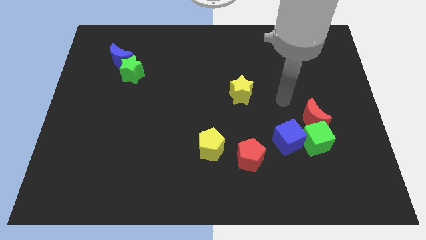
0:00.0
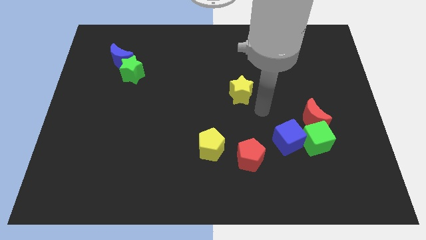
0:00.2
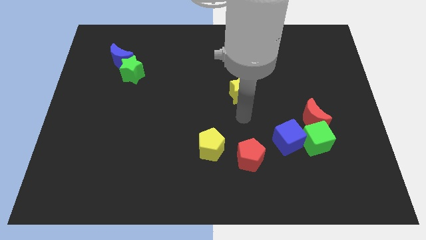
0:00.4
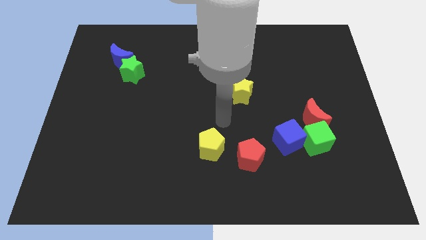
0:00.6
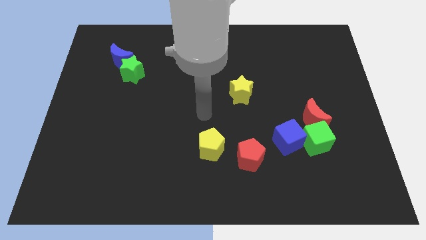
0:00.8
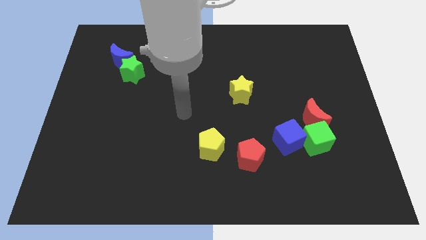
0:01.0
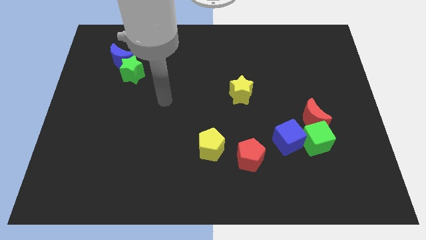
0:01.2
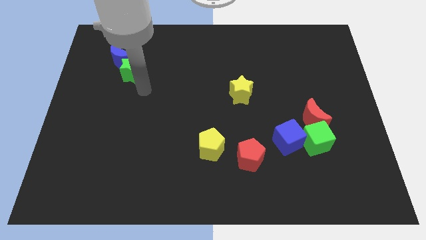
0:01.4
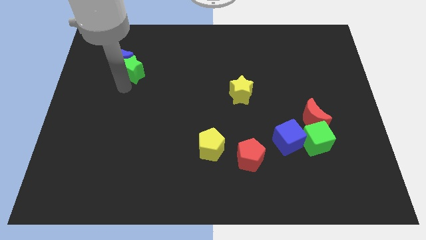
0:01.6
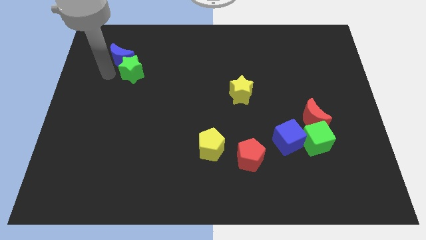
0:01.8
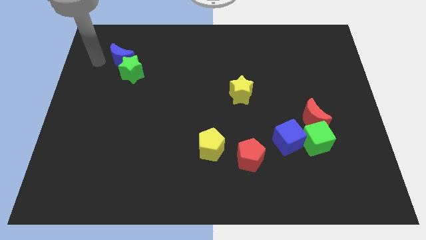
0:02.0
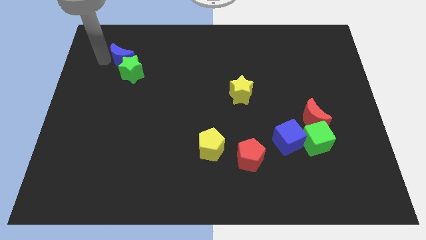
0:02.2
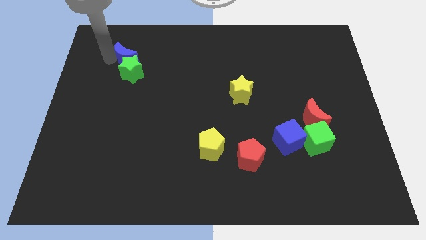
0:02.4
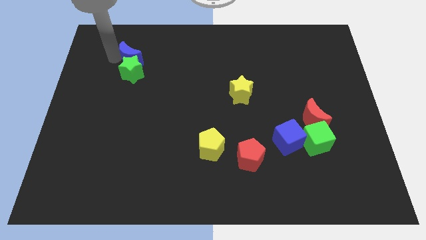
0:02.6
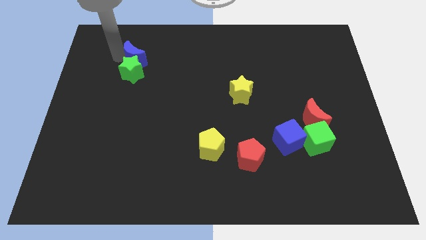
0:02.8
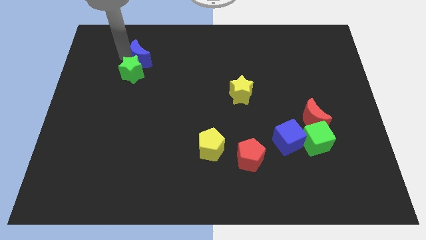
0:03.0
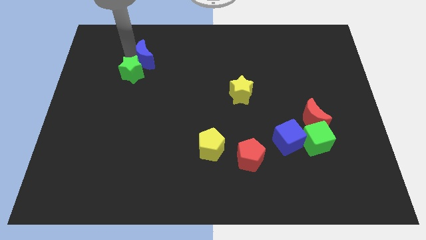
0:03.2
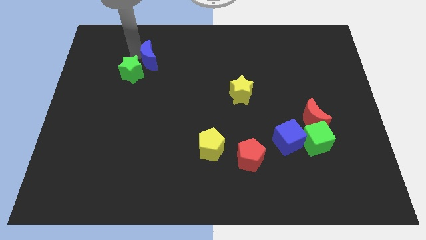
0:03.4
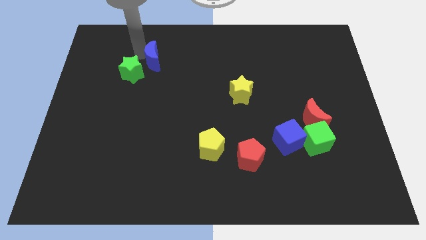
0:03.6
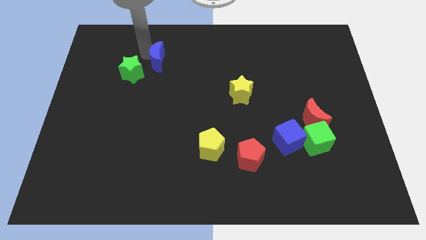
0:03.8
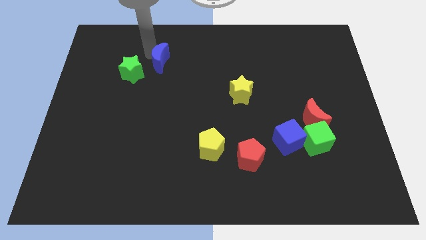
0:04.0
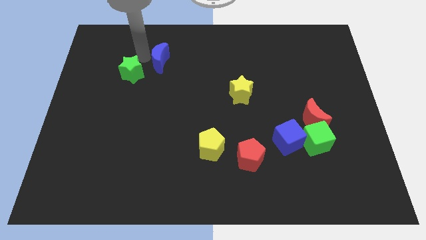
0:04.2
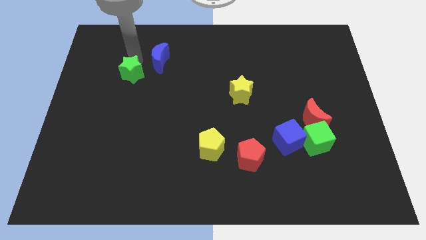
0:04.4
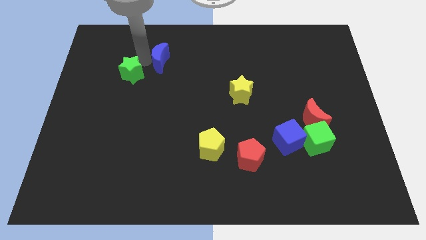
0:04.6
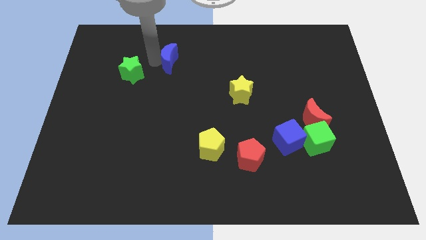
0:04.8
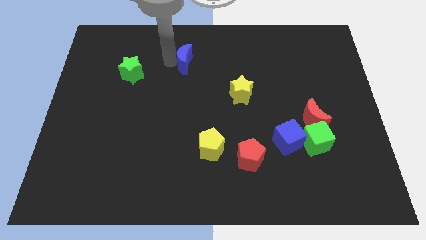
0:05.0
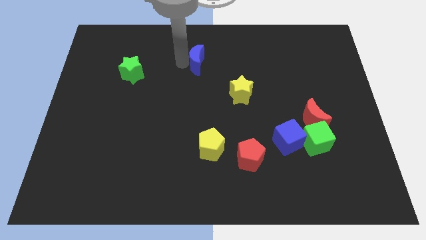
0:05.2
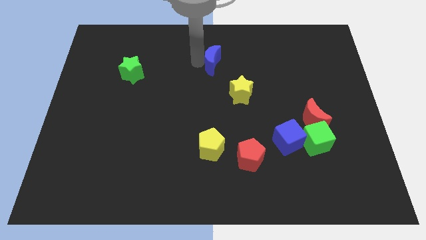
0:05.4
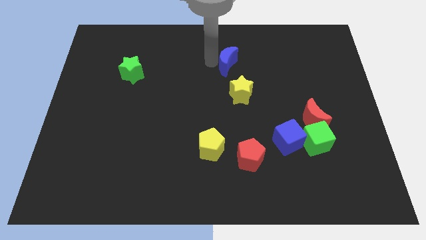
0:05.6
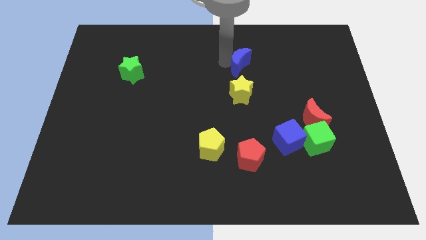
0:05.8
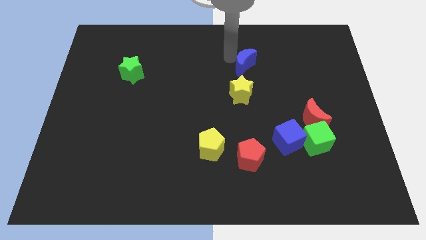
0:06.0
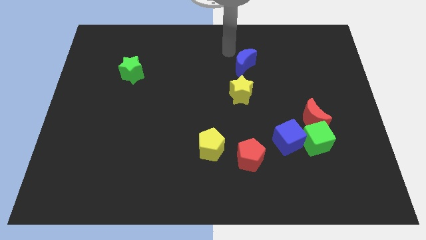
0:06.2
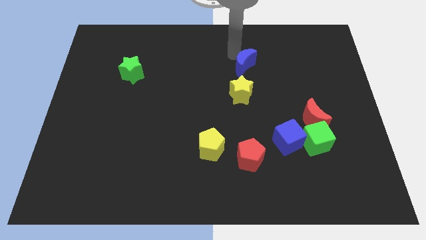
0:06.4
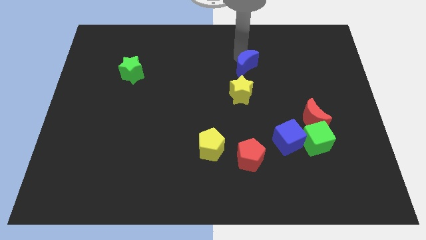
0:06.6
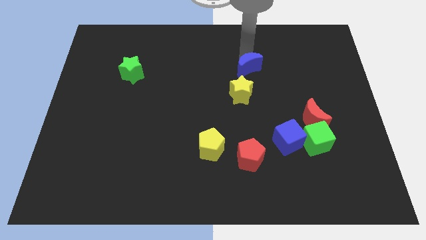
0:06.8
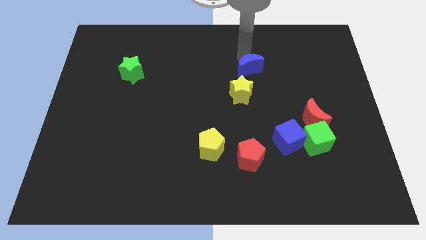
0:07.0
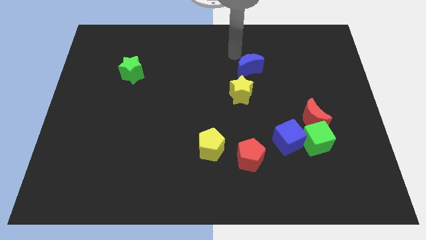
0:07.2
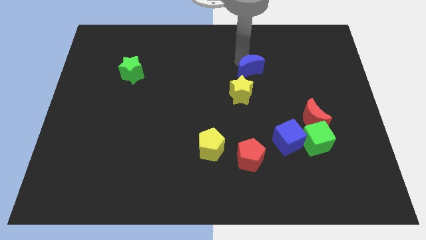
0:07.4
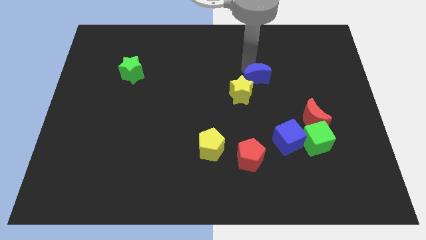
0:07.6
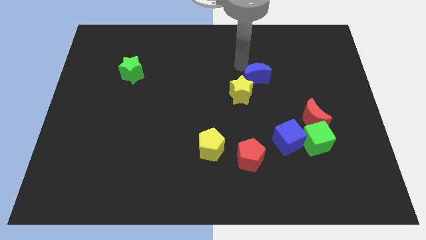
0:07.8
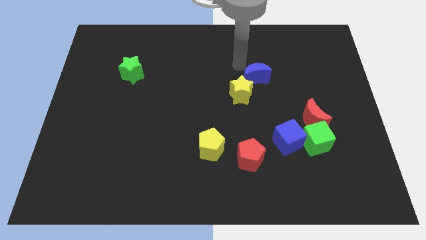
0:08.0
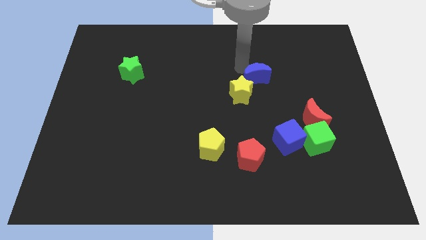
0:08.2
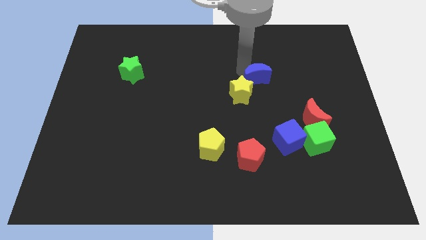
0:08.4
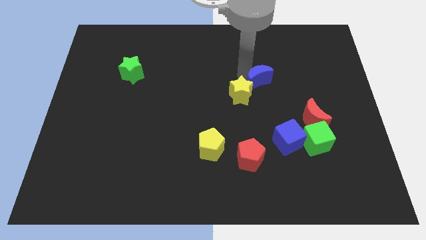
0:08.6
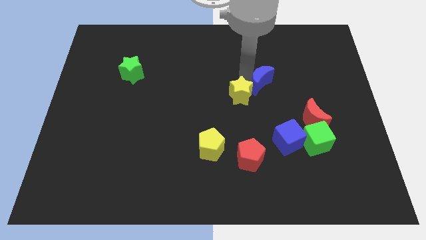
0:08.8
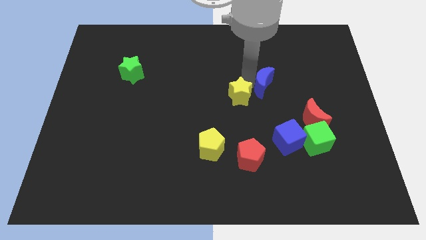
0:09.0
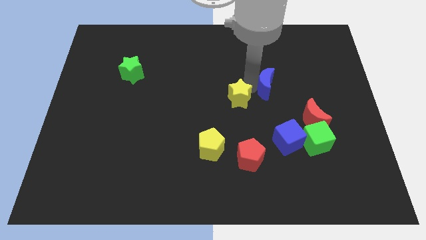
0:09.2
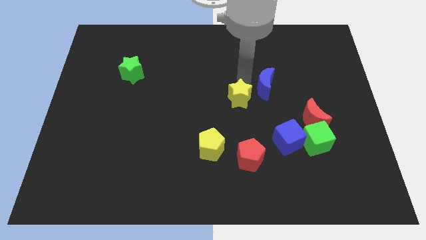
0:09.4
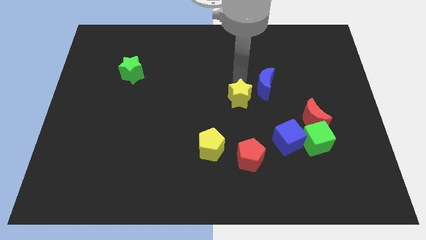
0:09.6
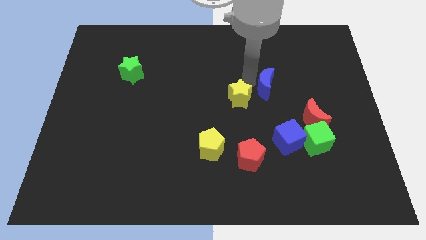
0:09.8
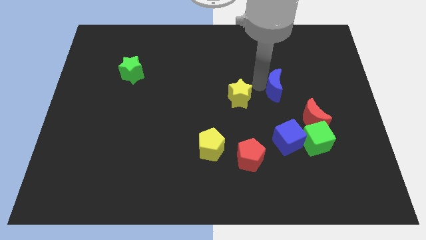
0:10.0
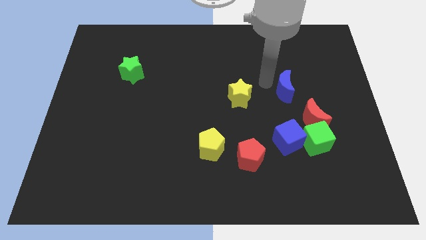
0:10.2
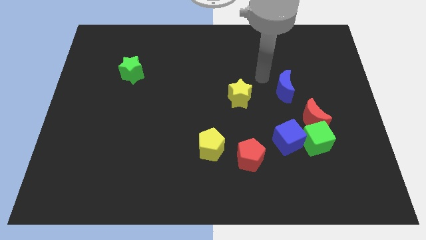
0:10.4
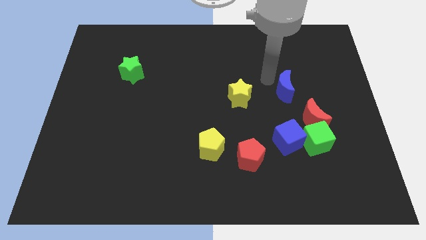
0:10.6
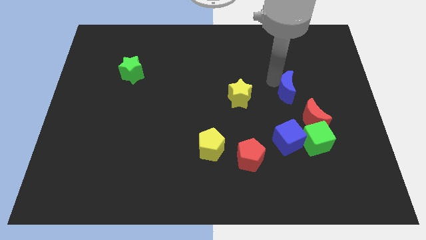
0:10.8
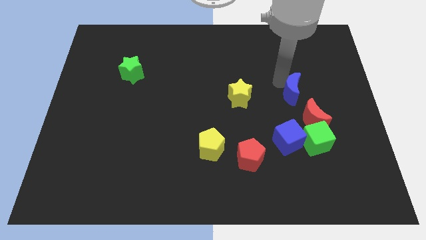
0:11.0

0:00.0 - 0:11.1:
slide the blue moon to the top of the green cube
